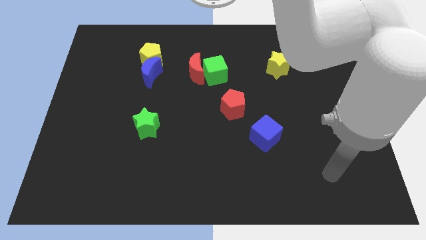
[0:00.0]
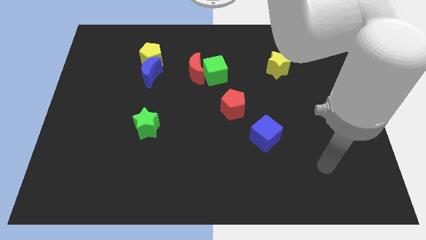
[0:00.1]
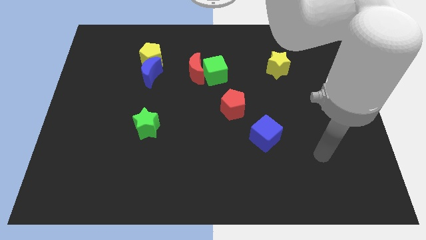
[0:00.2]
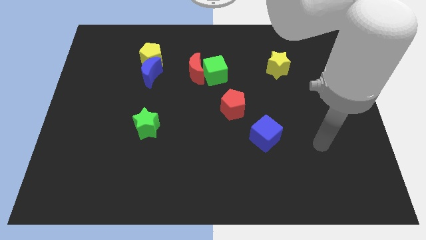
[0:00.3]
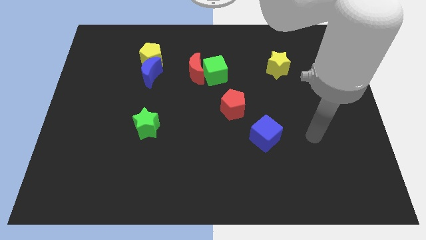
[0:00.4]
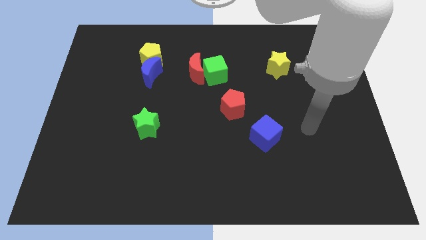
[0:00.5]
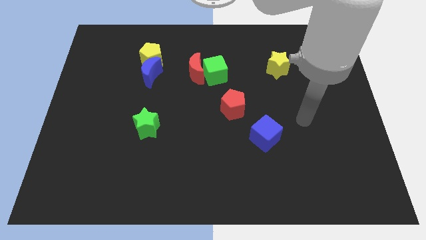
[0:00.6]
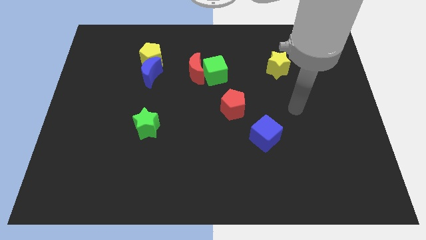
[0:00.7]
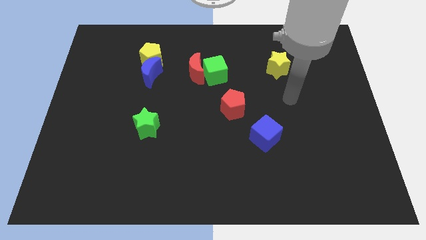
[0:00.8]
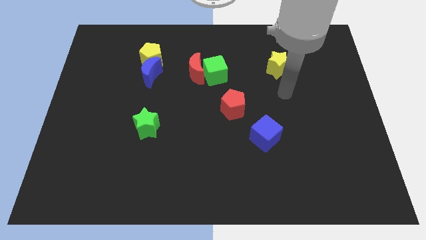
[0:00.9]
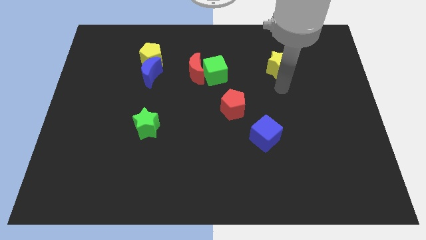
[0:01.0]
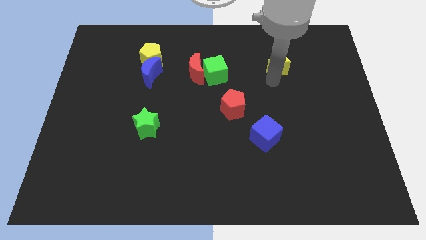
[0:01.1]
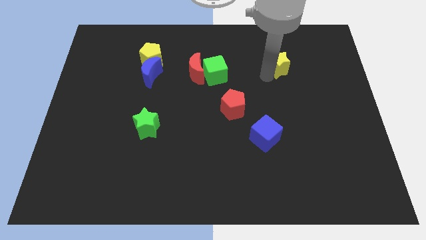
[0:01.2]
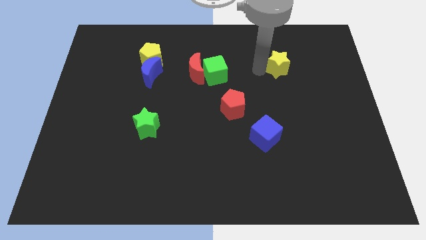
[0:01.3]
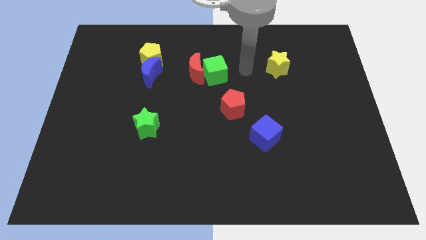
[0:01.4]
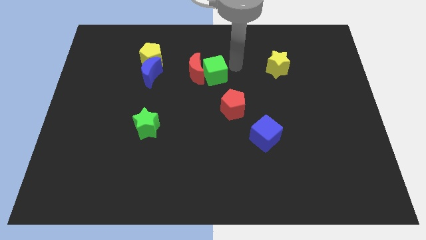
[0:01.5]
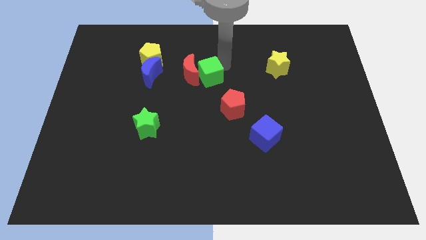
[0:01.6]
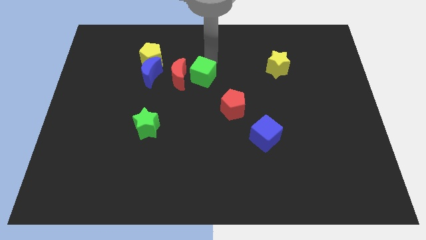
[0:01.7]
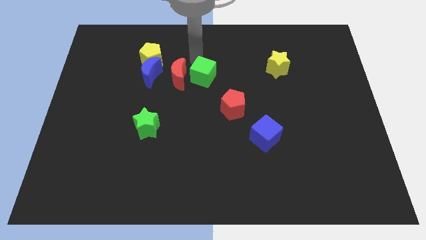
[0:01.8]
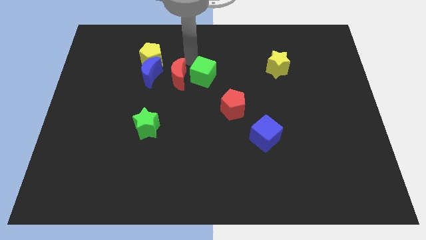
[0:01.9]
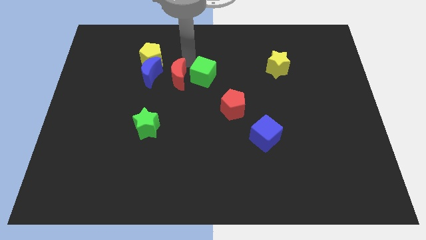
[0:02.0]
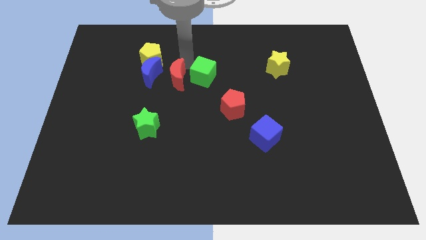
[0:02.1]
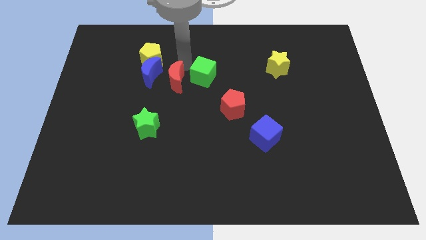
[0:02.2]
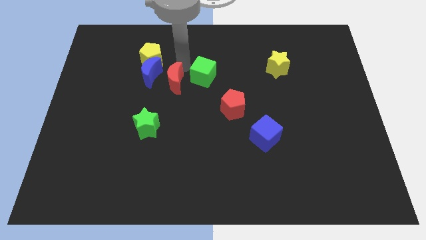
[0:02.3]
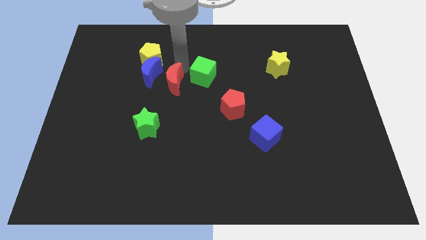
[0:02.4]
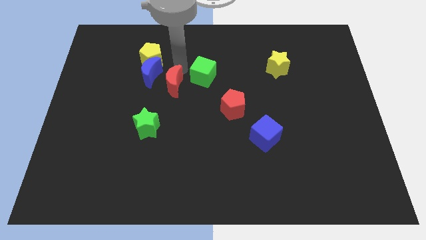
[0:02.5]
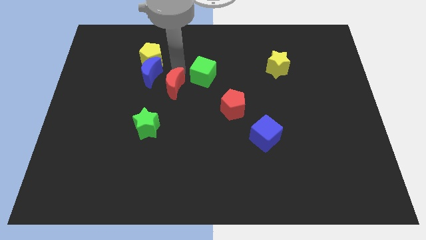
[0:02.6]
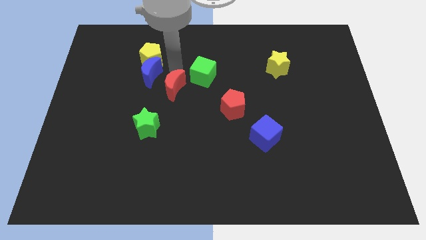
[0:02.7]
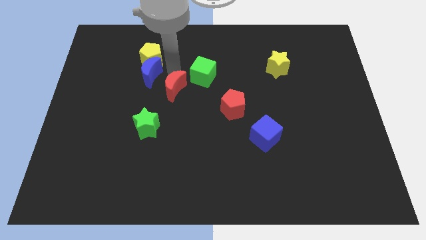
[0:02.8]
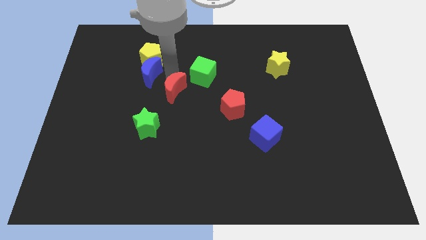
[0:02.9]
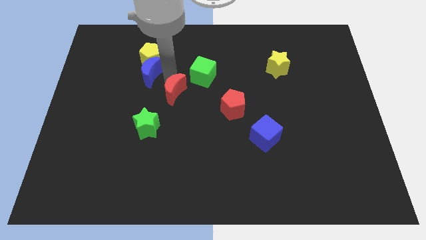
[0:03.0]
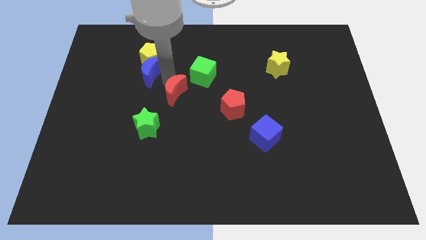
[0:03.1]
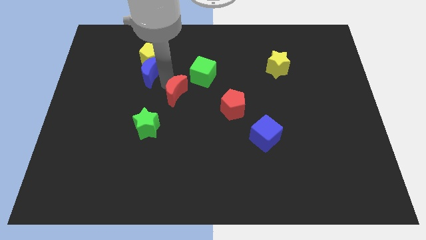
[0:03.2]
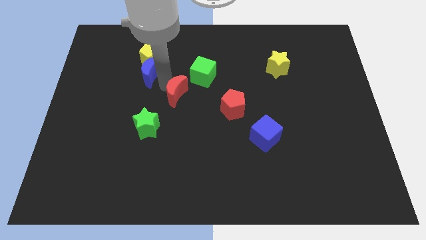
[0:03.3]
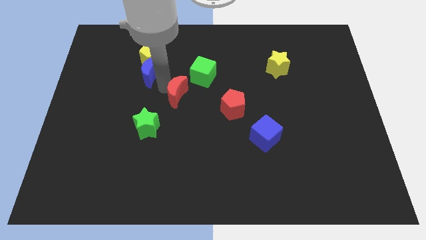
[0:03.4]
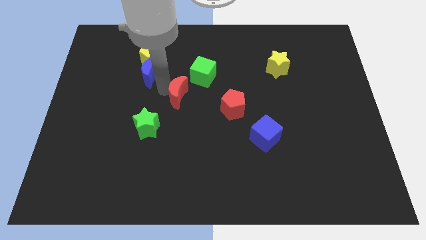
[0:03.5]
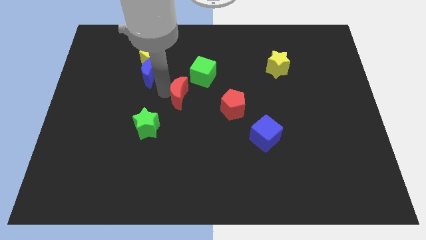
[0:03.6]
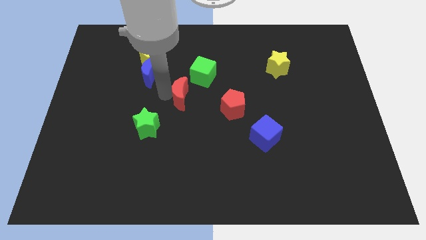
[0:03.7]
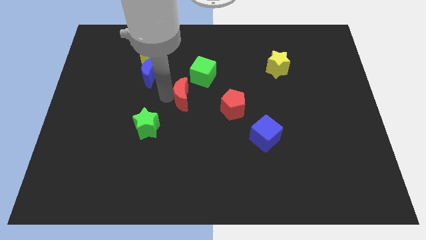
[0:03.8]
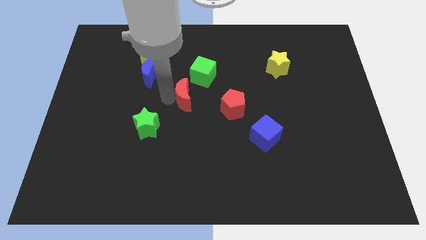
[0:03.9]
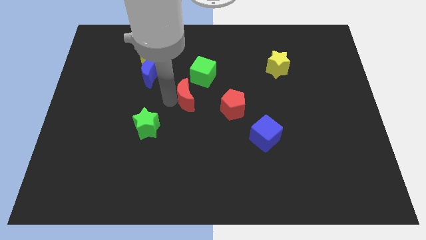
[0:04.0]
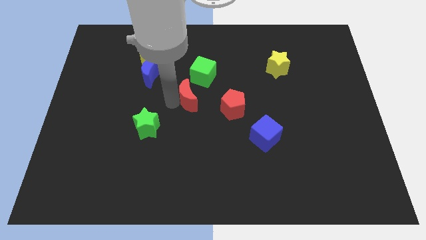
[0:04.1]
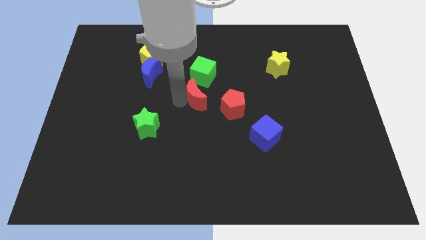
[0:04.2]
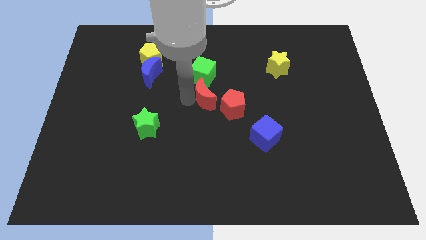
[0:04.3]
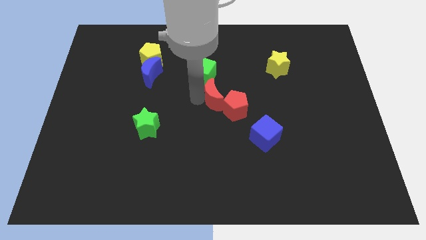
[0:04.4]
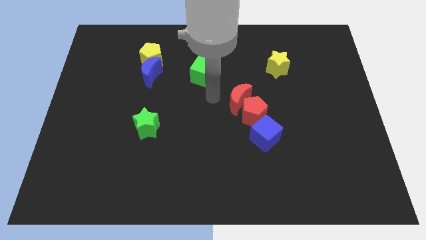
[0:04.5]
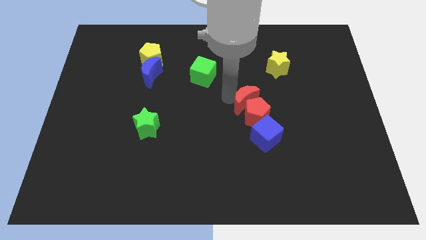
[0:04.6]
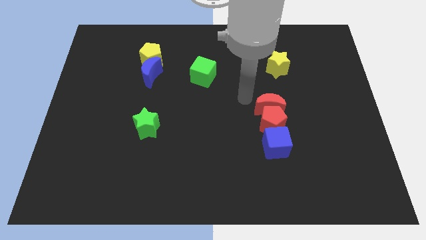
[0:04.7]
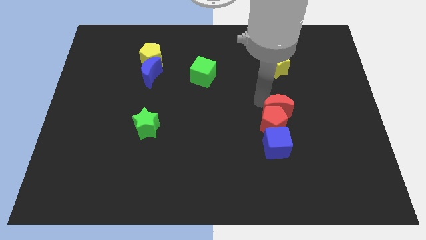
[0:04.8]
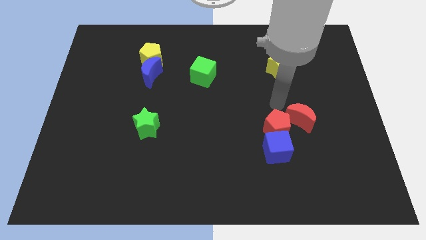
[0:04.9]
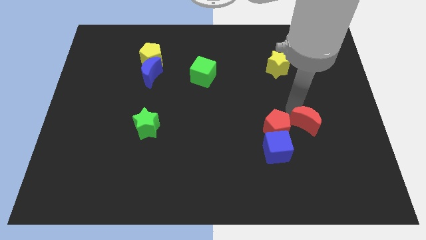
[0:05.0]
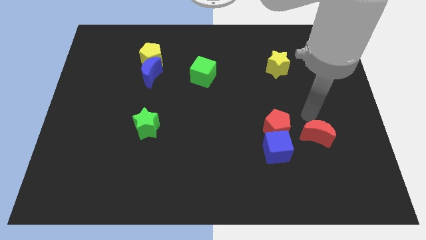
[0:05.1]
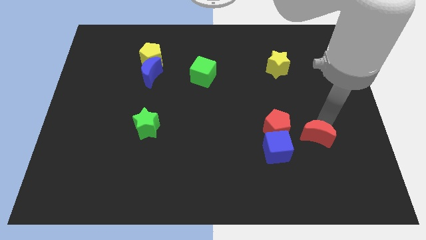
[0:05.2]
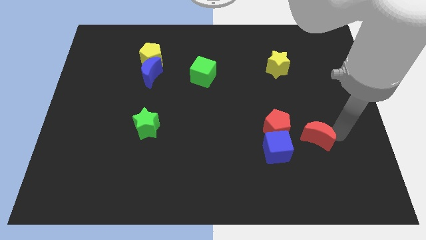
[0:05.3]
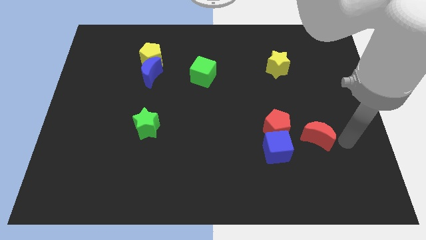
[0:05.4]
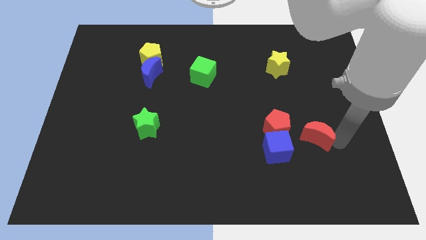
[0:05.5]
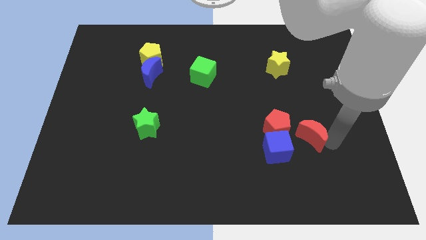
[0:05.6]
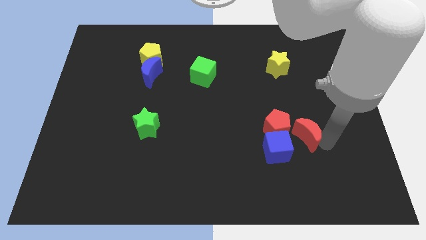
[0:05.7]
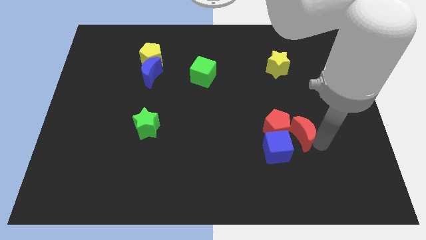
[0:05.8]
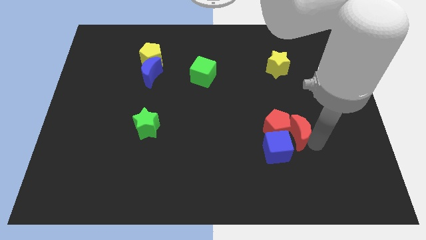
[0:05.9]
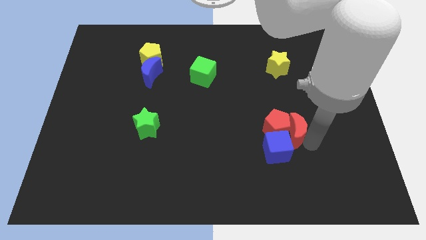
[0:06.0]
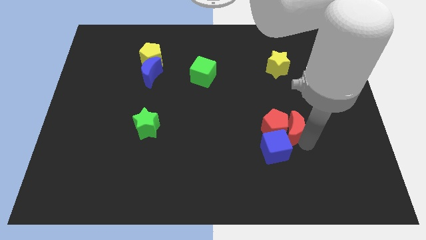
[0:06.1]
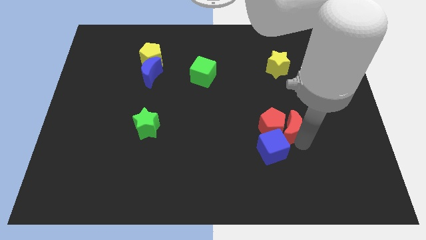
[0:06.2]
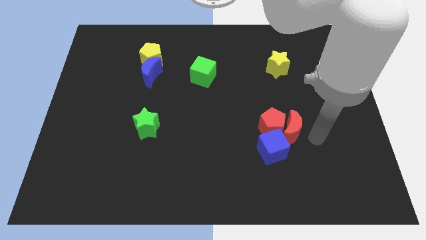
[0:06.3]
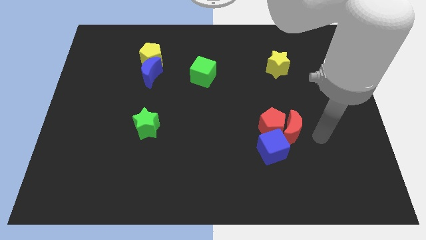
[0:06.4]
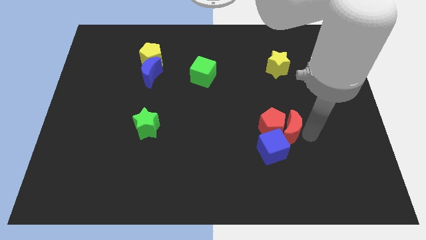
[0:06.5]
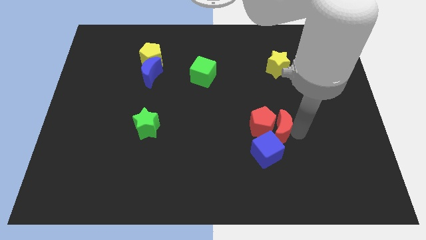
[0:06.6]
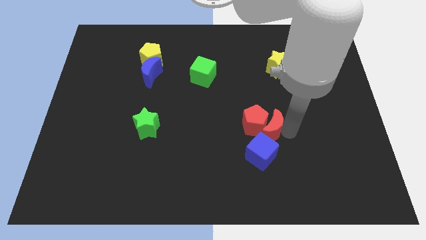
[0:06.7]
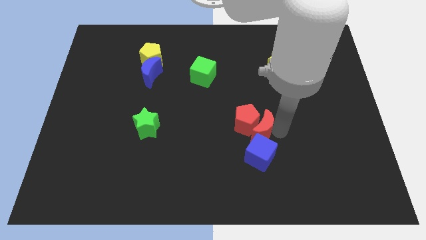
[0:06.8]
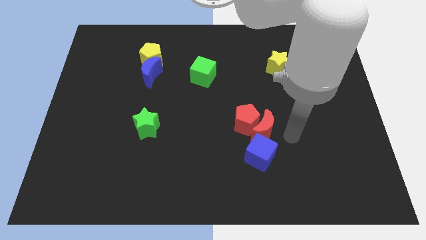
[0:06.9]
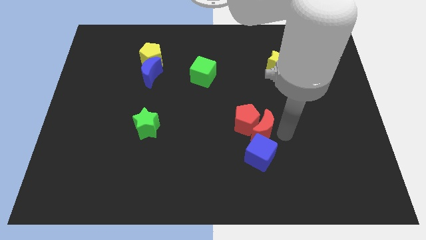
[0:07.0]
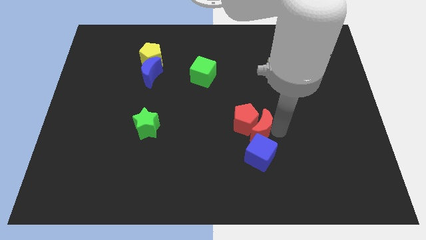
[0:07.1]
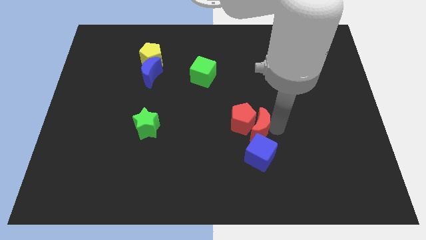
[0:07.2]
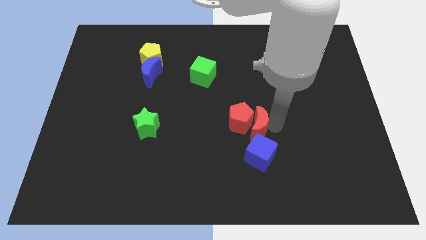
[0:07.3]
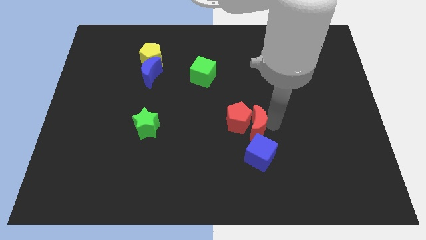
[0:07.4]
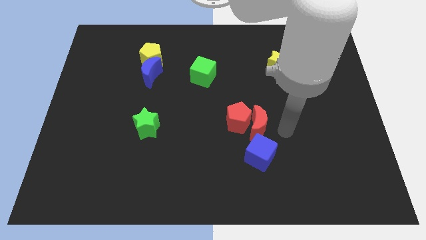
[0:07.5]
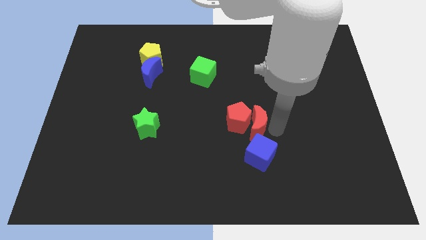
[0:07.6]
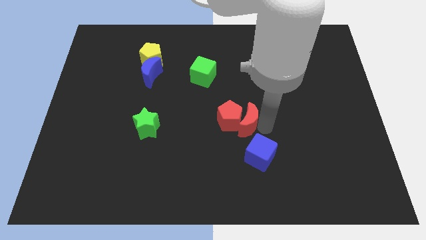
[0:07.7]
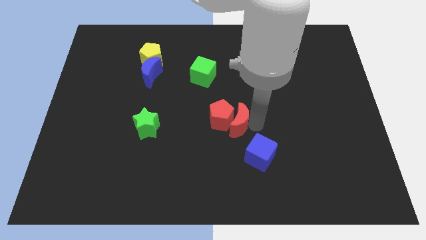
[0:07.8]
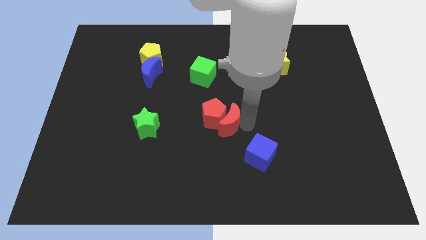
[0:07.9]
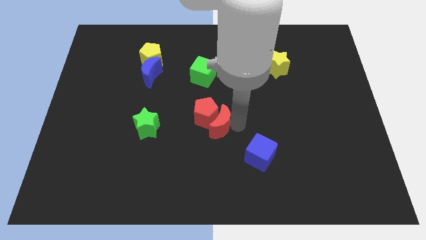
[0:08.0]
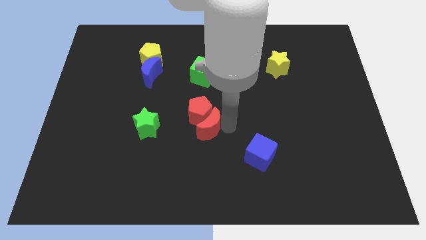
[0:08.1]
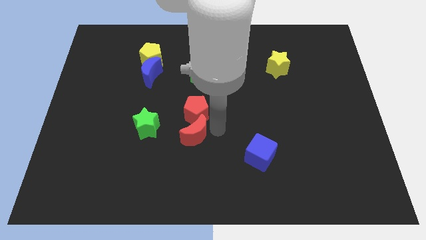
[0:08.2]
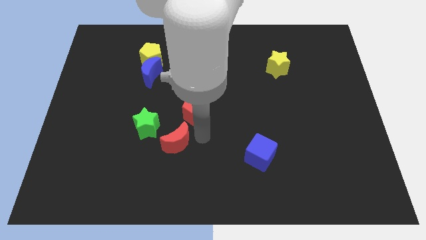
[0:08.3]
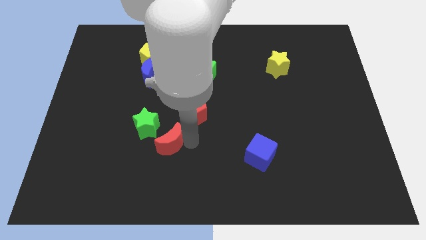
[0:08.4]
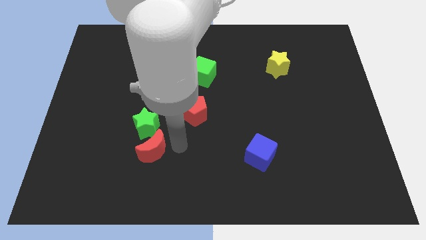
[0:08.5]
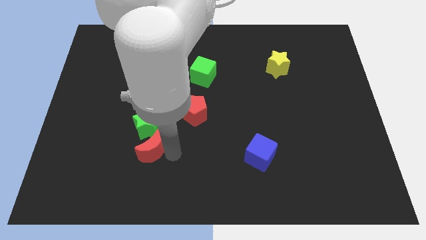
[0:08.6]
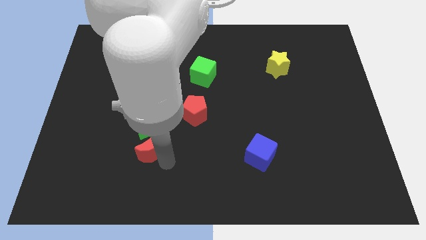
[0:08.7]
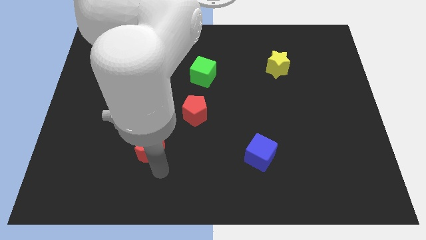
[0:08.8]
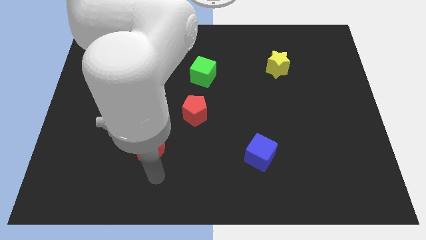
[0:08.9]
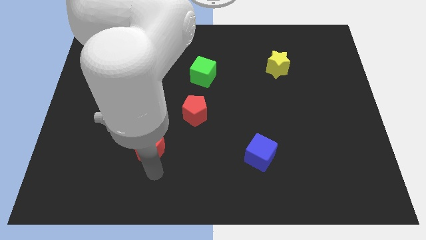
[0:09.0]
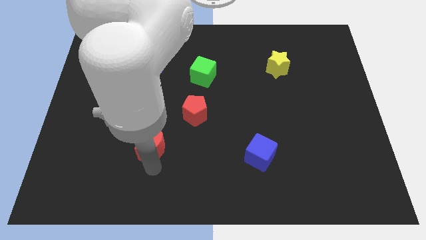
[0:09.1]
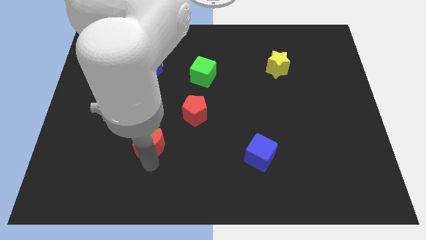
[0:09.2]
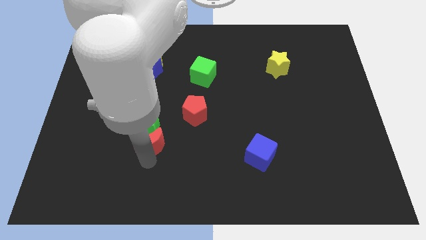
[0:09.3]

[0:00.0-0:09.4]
put the red moon diagonally down and to the left of the green star
